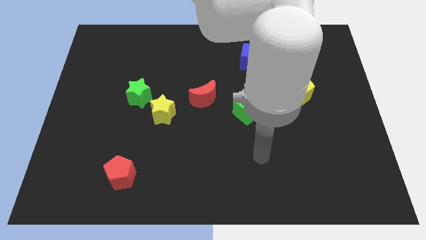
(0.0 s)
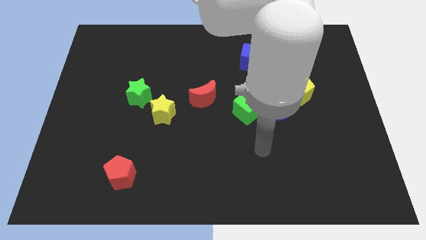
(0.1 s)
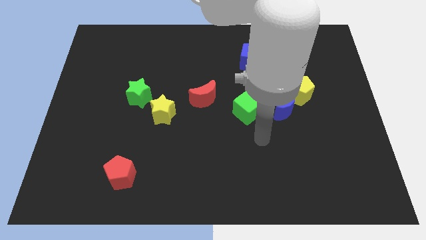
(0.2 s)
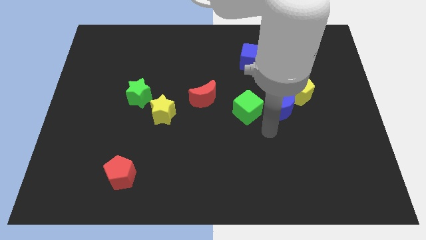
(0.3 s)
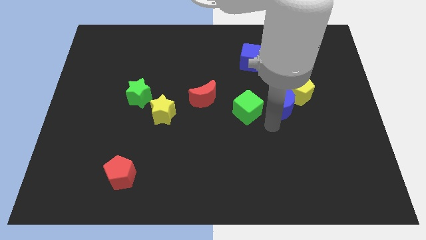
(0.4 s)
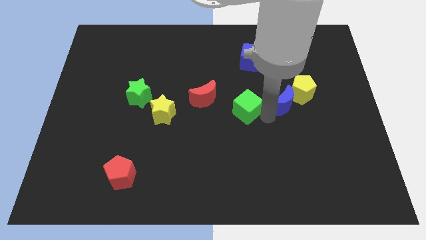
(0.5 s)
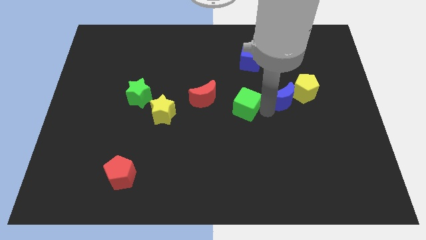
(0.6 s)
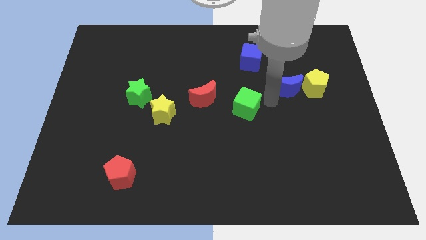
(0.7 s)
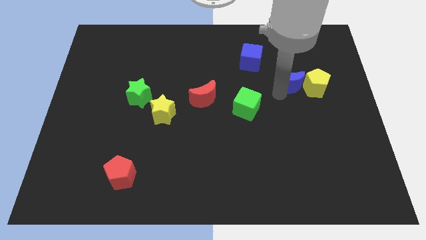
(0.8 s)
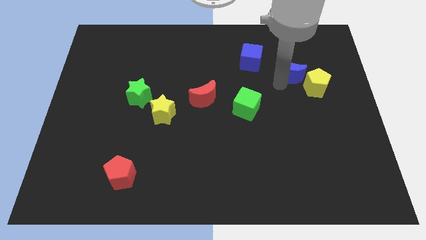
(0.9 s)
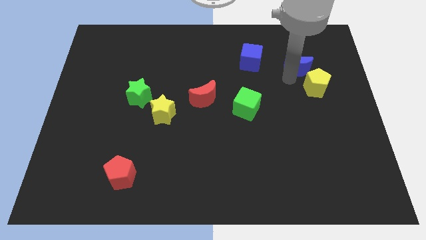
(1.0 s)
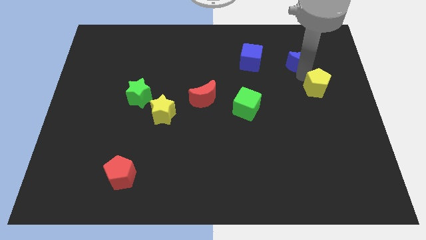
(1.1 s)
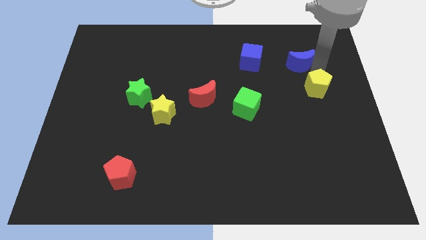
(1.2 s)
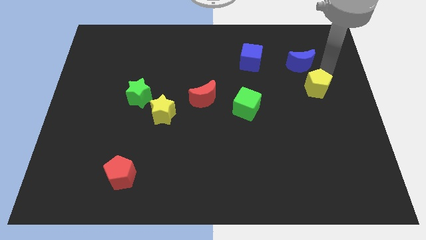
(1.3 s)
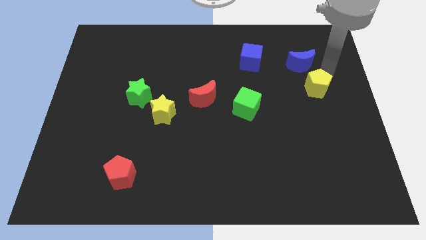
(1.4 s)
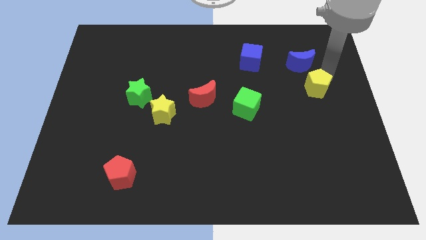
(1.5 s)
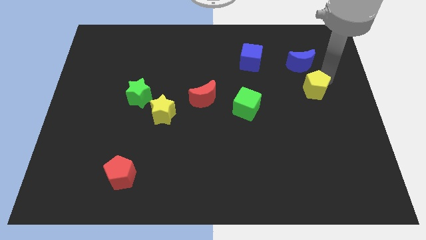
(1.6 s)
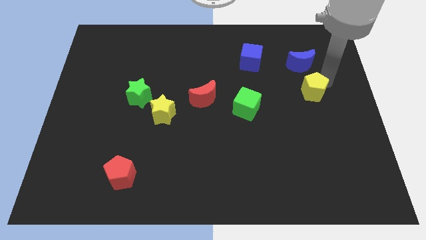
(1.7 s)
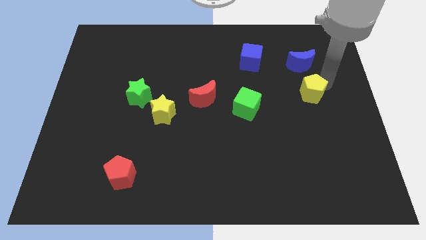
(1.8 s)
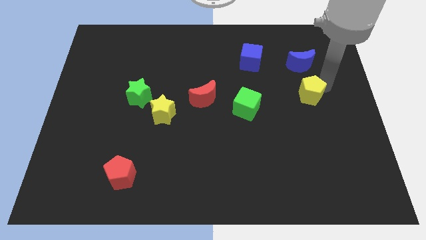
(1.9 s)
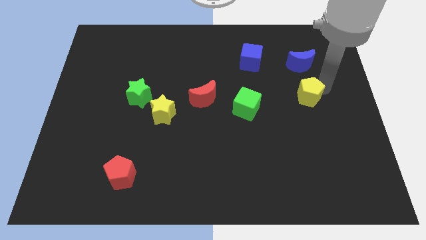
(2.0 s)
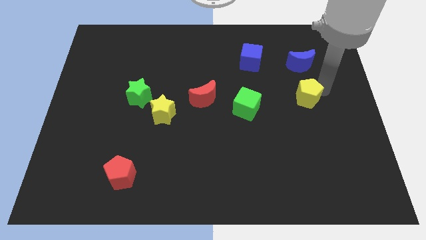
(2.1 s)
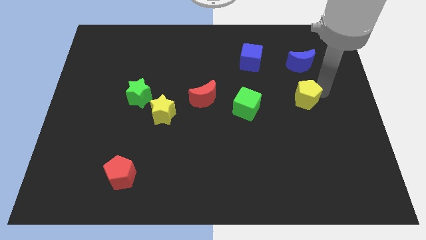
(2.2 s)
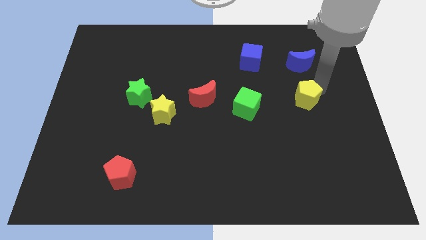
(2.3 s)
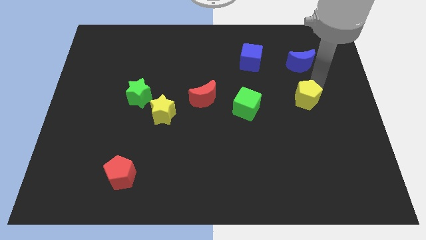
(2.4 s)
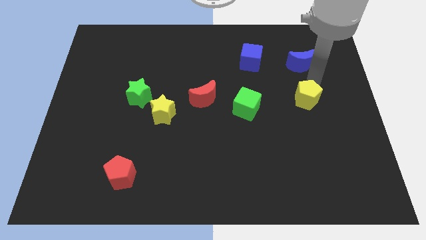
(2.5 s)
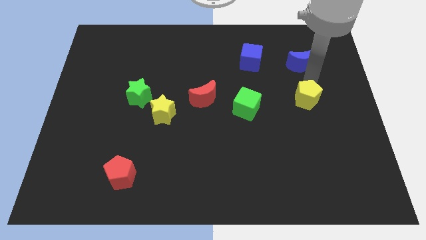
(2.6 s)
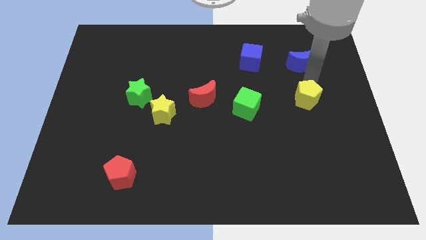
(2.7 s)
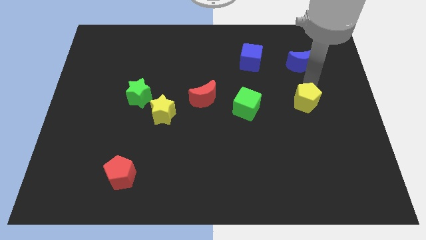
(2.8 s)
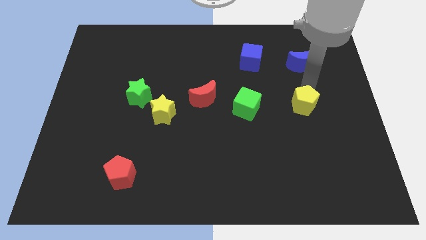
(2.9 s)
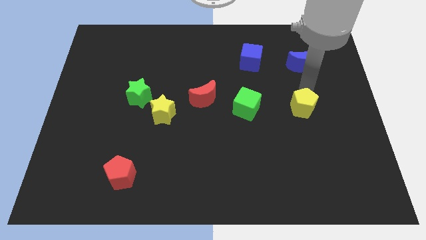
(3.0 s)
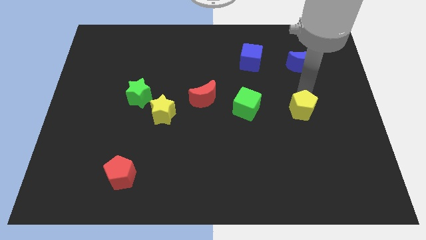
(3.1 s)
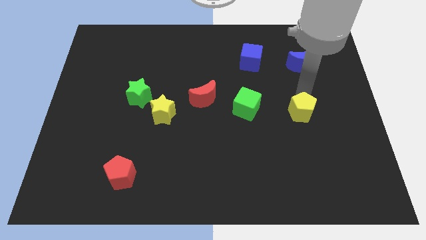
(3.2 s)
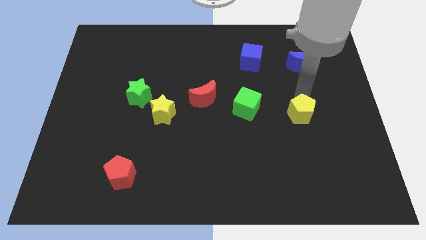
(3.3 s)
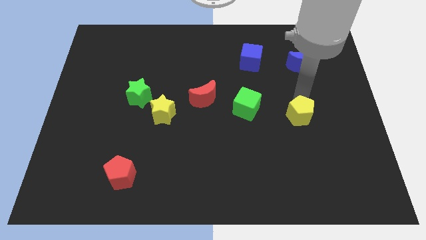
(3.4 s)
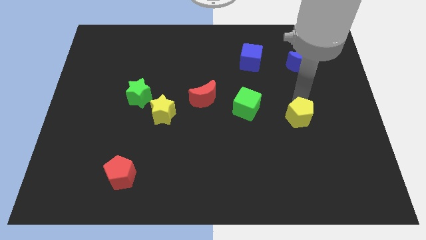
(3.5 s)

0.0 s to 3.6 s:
move the yellow pentagon down a little bit

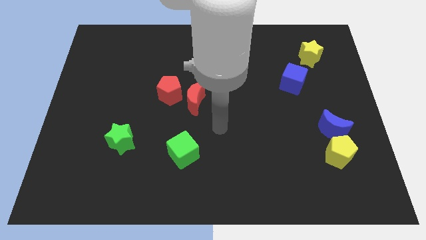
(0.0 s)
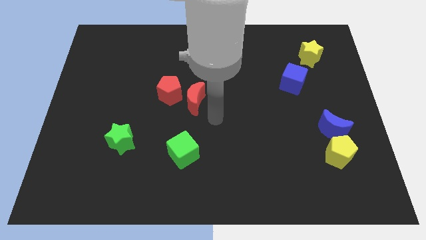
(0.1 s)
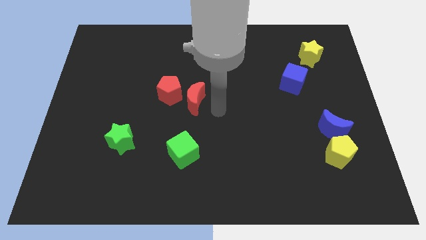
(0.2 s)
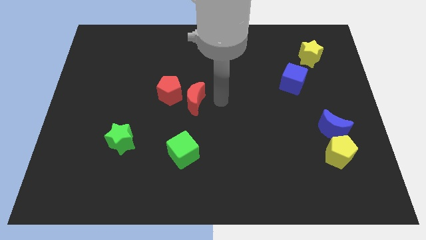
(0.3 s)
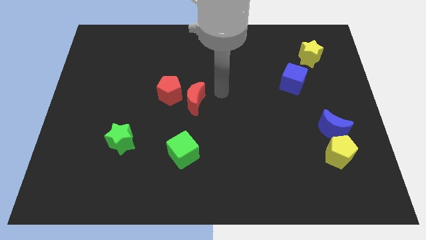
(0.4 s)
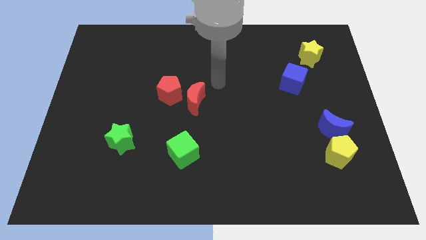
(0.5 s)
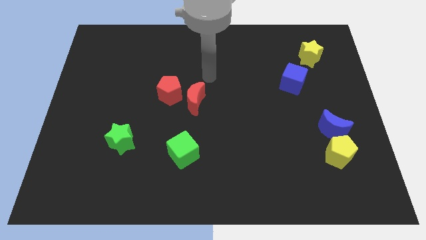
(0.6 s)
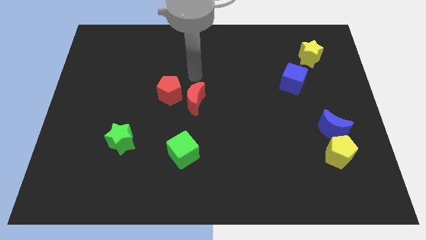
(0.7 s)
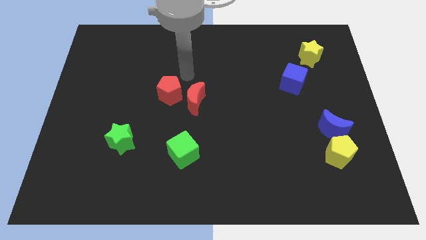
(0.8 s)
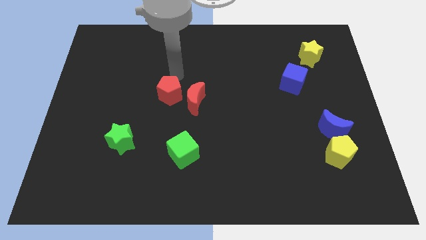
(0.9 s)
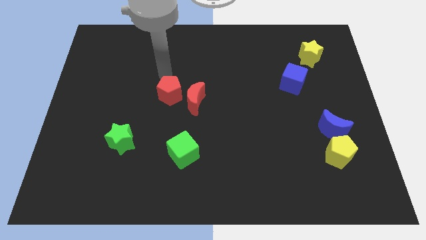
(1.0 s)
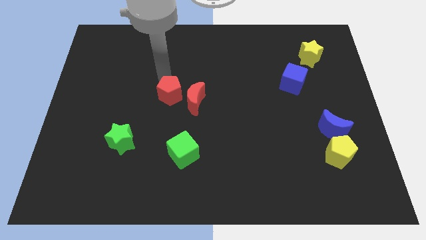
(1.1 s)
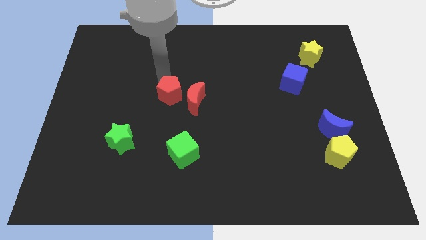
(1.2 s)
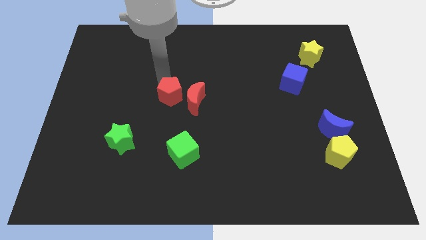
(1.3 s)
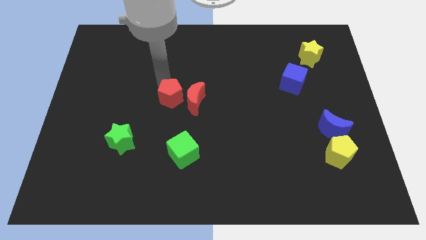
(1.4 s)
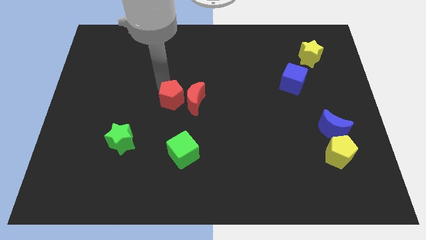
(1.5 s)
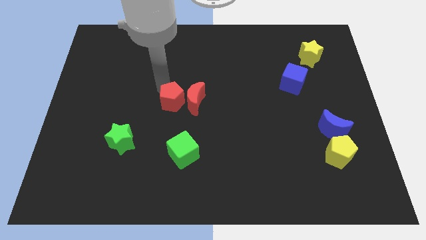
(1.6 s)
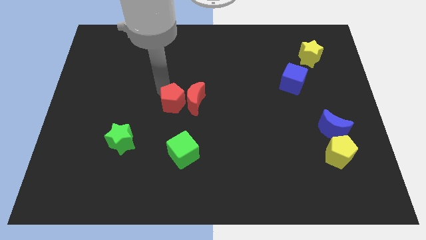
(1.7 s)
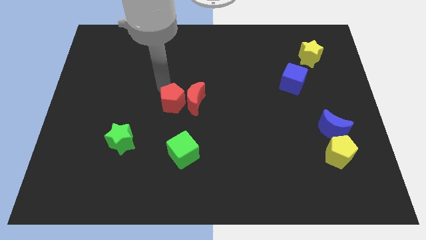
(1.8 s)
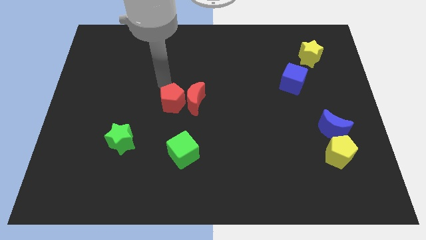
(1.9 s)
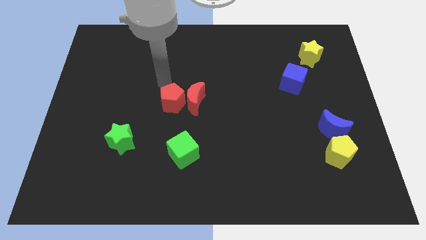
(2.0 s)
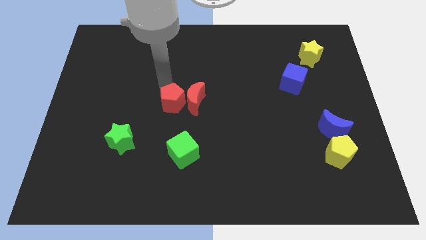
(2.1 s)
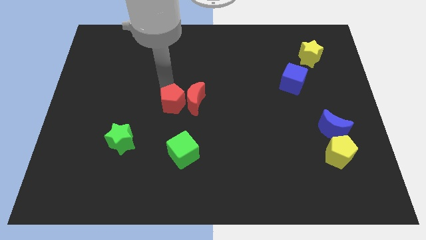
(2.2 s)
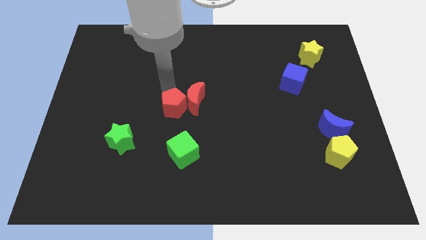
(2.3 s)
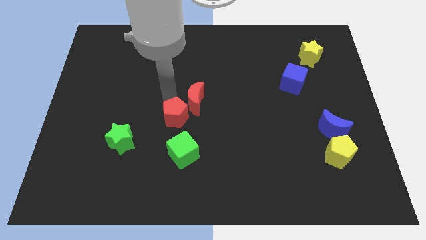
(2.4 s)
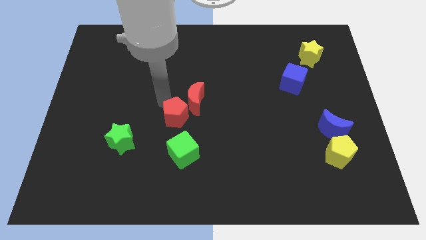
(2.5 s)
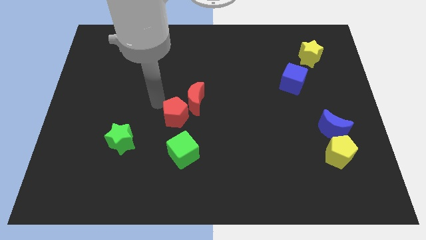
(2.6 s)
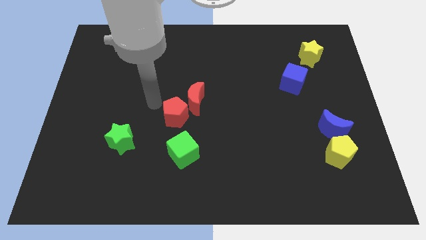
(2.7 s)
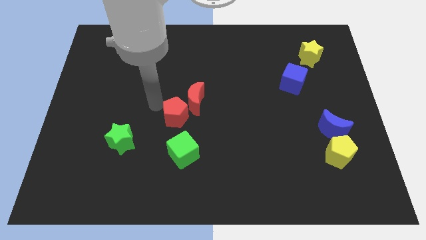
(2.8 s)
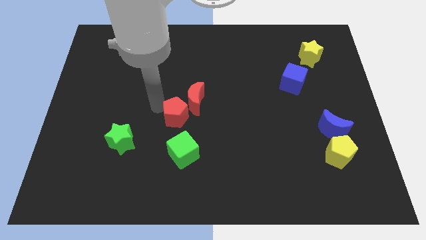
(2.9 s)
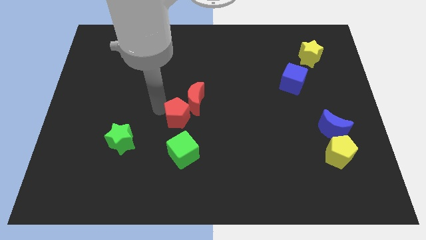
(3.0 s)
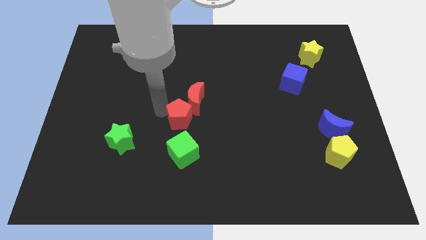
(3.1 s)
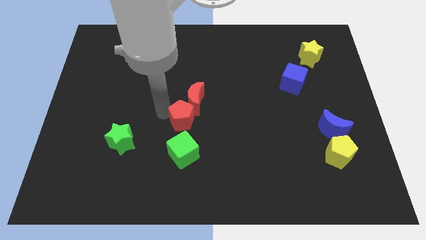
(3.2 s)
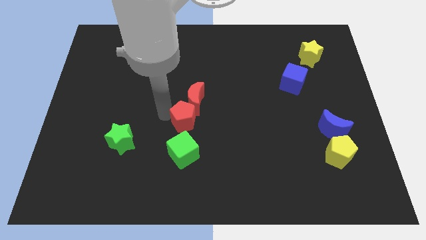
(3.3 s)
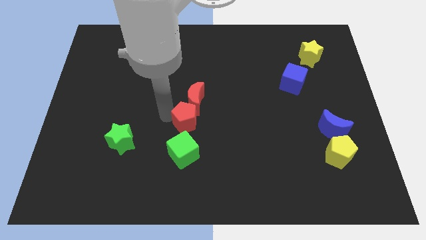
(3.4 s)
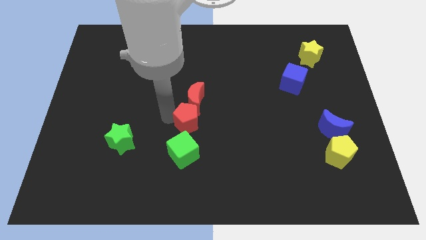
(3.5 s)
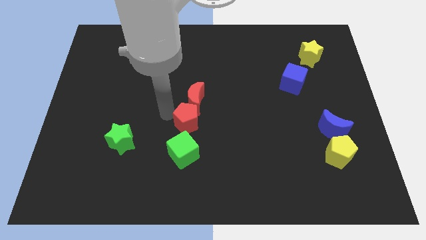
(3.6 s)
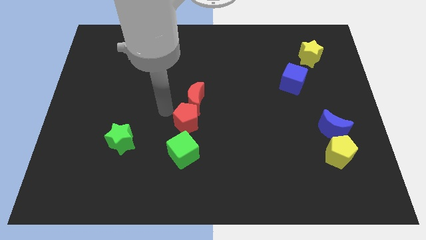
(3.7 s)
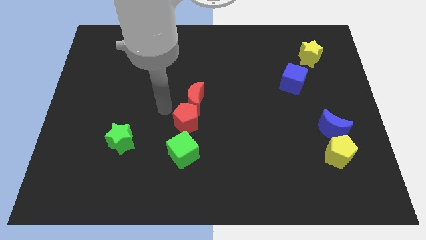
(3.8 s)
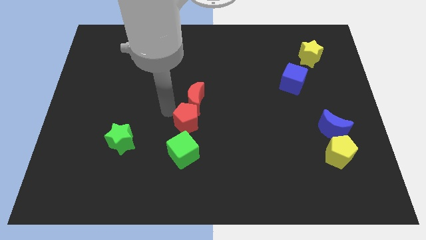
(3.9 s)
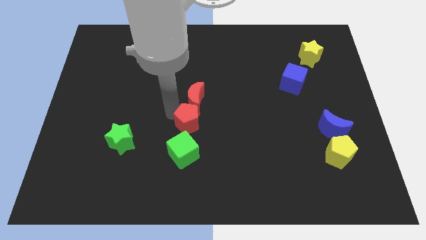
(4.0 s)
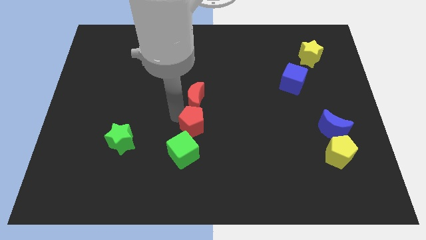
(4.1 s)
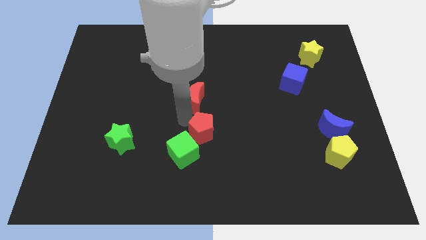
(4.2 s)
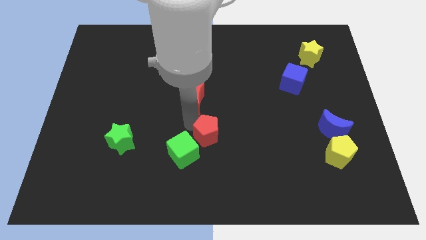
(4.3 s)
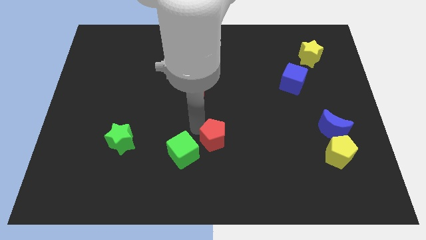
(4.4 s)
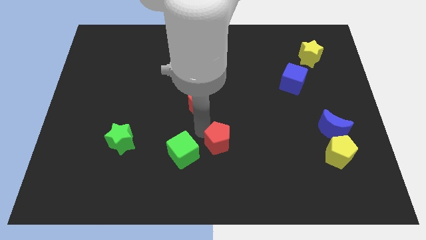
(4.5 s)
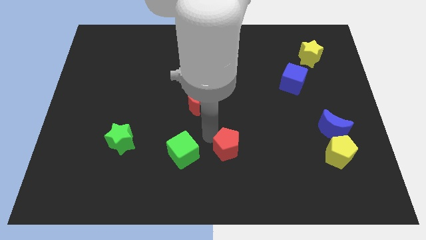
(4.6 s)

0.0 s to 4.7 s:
move the red pentagon downwards and then to the right

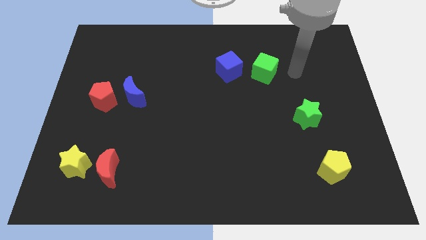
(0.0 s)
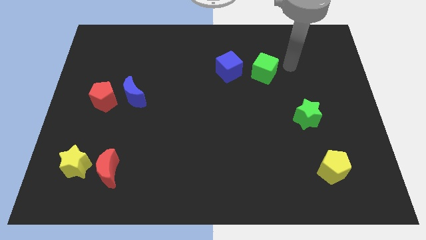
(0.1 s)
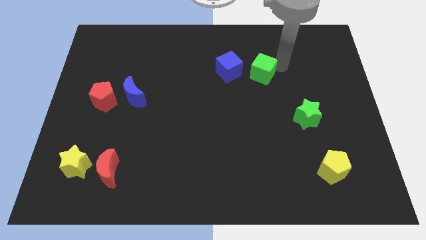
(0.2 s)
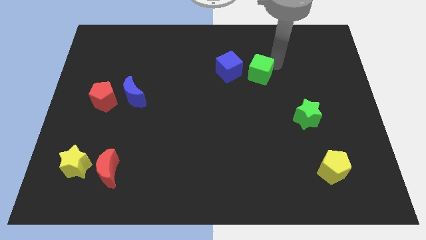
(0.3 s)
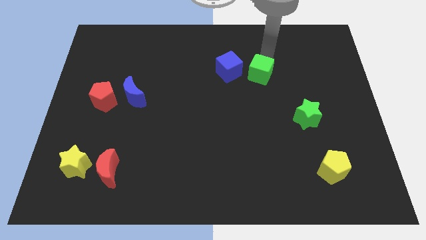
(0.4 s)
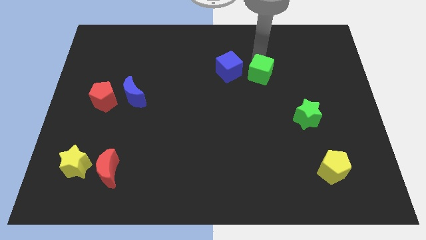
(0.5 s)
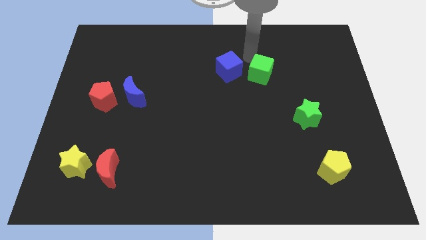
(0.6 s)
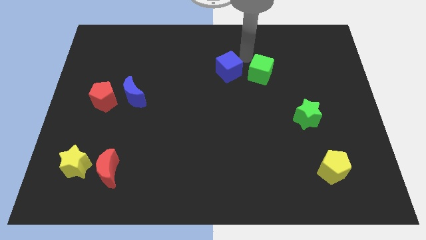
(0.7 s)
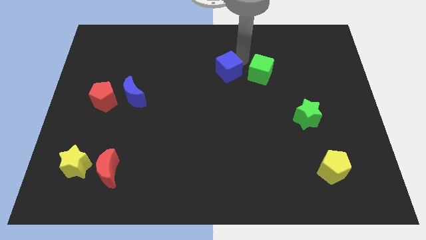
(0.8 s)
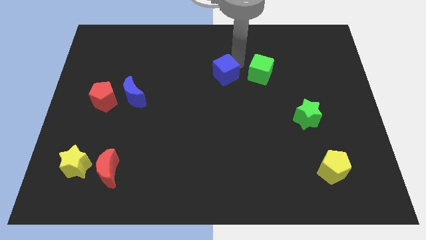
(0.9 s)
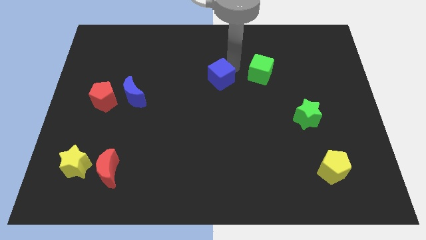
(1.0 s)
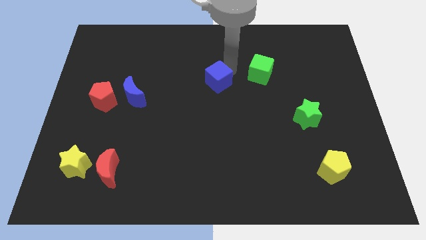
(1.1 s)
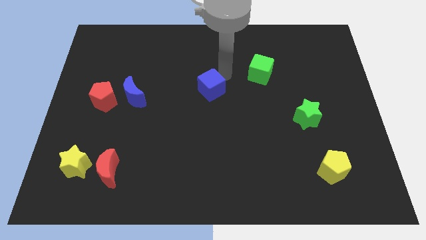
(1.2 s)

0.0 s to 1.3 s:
move the blue cube a little diagonally down and left
